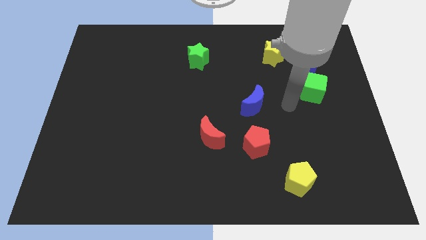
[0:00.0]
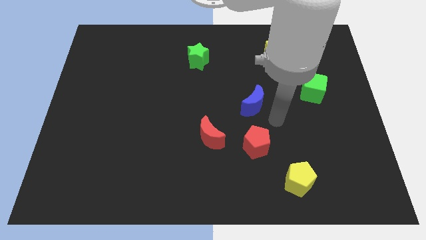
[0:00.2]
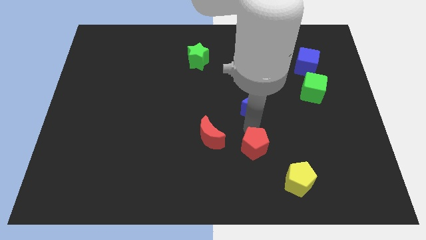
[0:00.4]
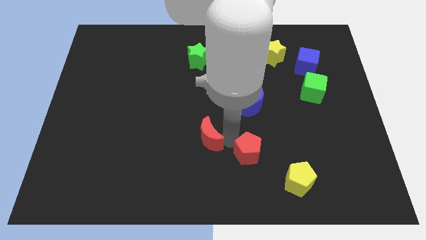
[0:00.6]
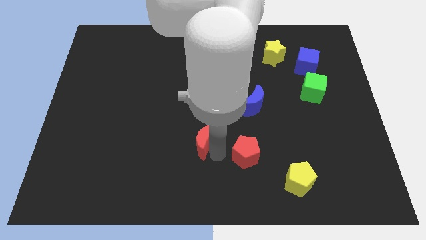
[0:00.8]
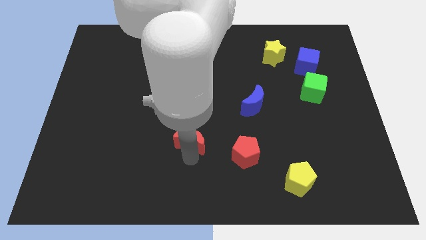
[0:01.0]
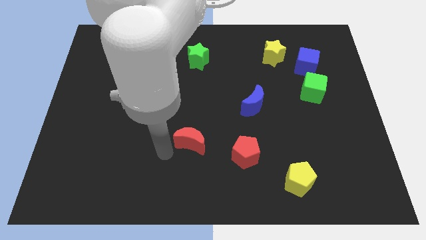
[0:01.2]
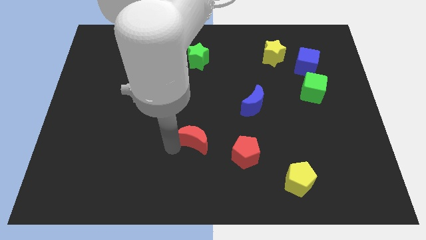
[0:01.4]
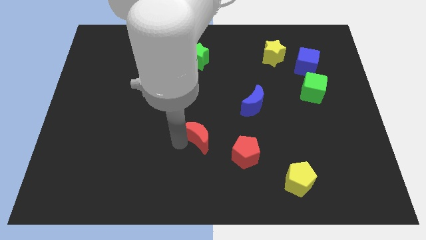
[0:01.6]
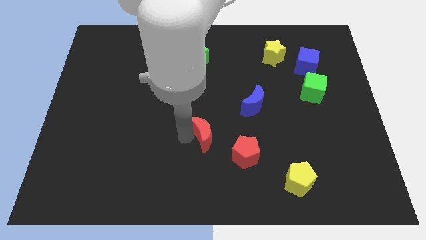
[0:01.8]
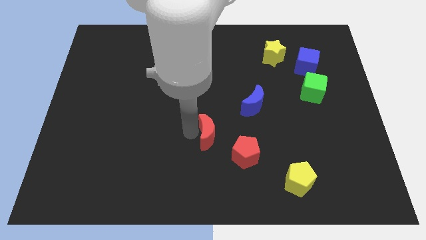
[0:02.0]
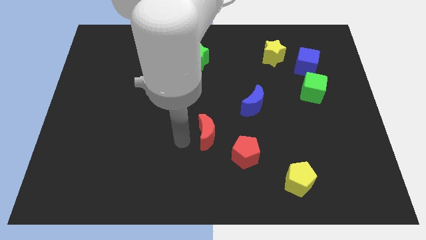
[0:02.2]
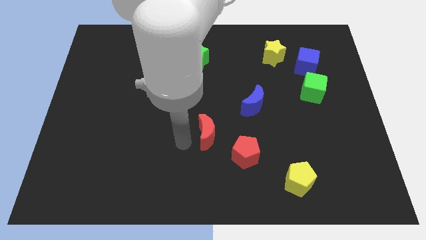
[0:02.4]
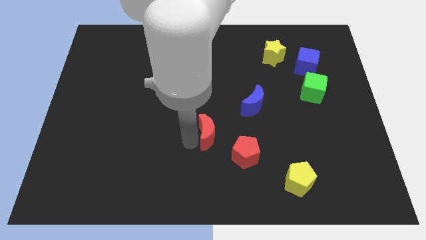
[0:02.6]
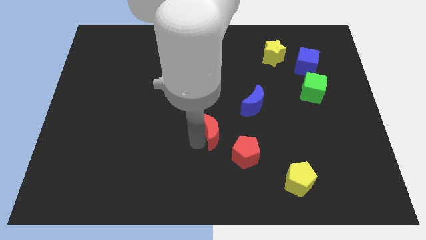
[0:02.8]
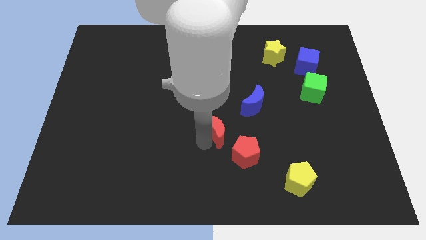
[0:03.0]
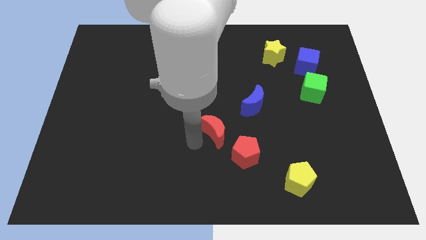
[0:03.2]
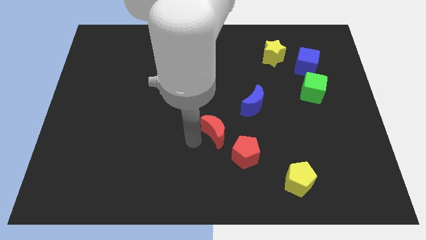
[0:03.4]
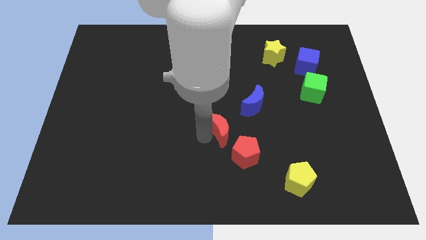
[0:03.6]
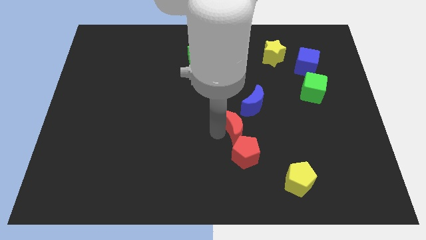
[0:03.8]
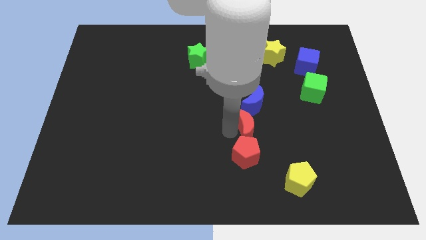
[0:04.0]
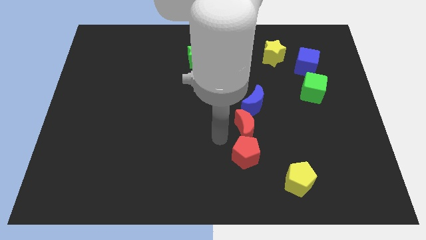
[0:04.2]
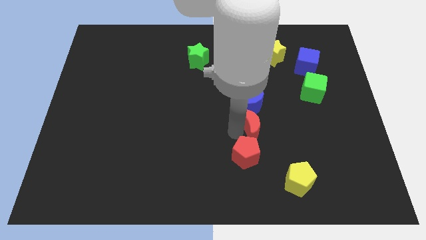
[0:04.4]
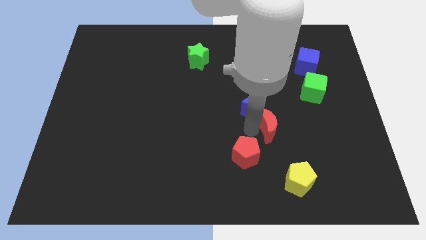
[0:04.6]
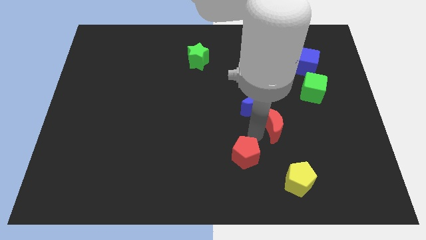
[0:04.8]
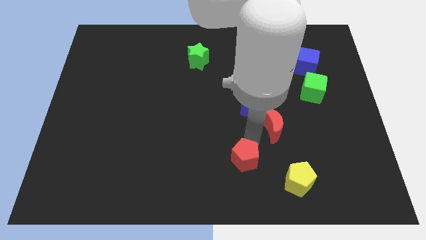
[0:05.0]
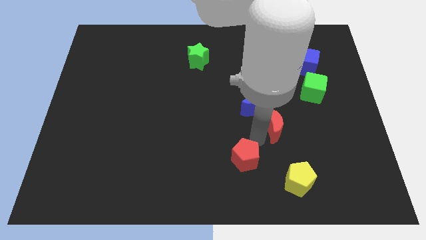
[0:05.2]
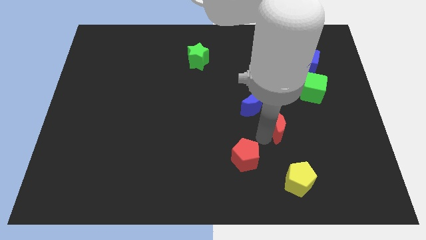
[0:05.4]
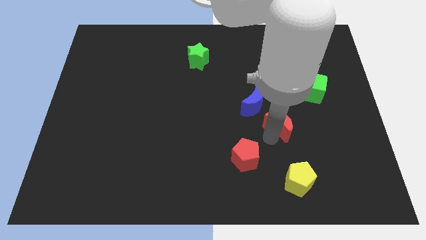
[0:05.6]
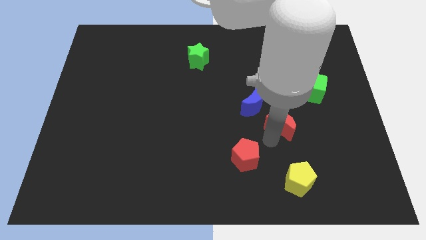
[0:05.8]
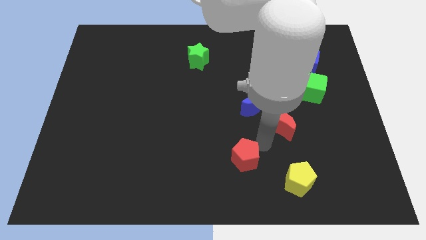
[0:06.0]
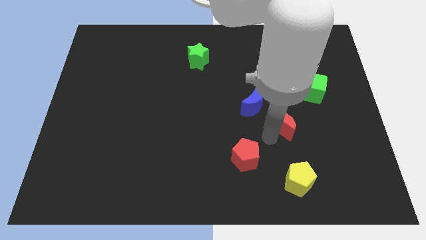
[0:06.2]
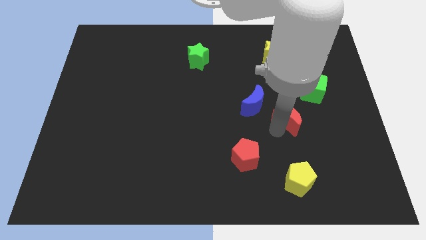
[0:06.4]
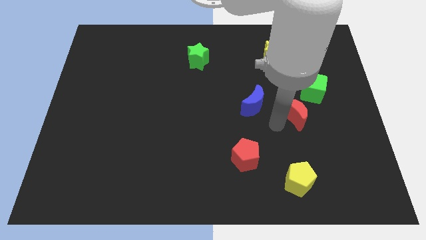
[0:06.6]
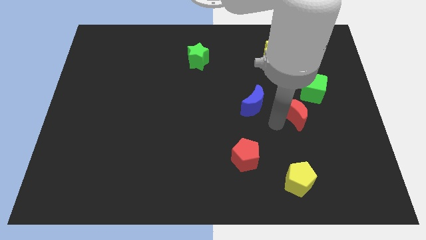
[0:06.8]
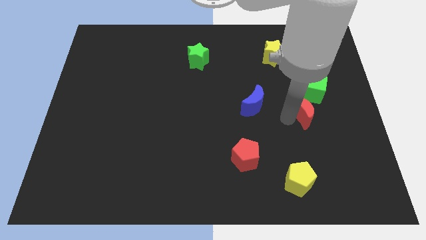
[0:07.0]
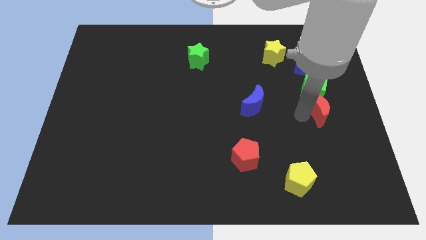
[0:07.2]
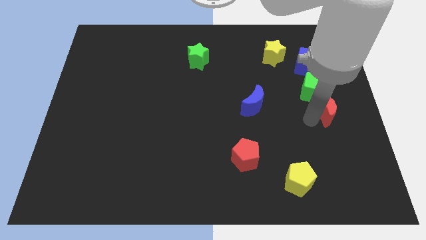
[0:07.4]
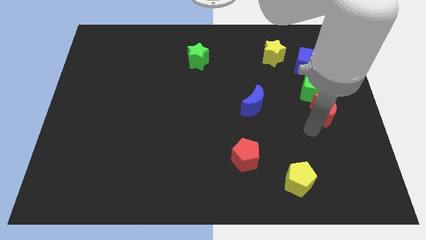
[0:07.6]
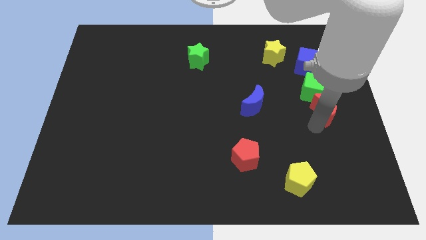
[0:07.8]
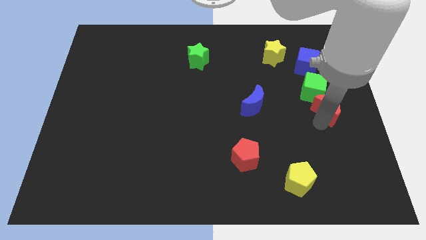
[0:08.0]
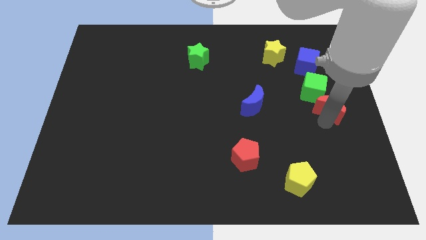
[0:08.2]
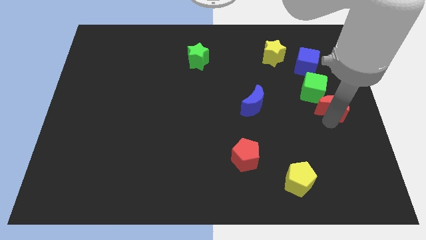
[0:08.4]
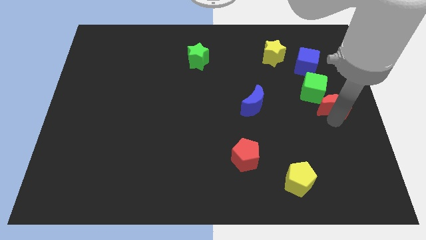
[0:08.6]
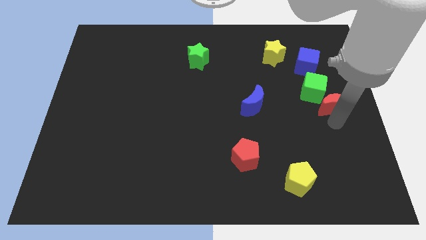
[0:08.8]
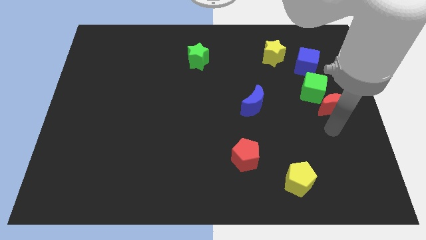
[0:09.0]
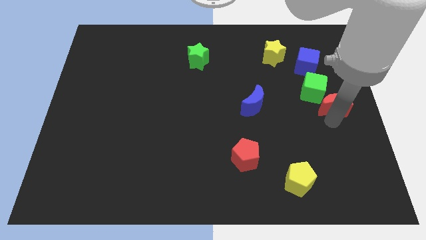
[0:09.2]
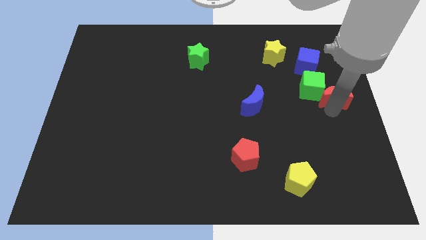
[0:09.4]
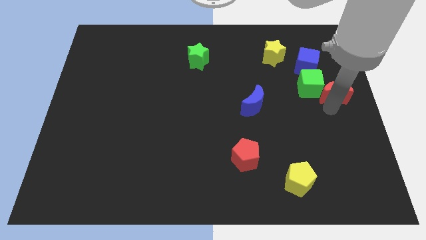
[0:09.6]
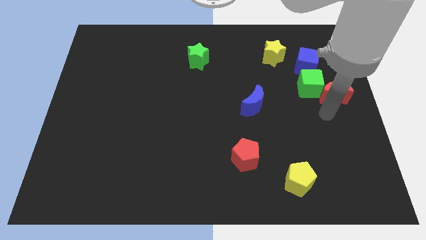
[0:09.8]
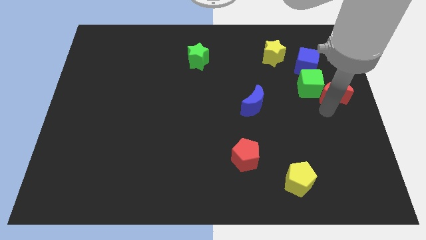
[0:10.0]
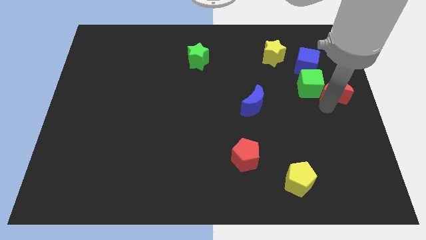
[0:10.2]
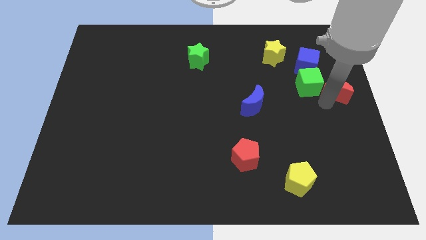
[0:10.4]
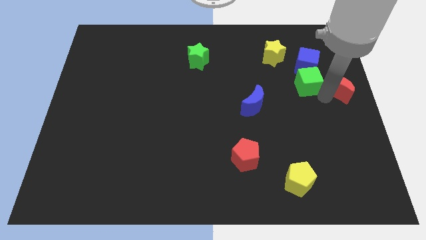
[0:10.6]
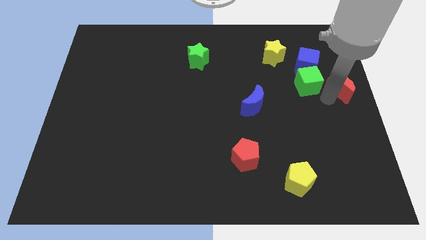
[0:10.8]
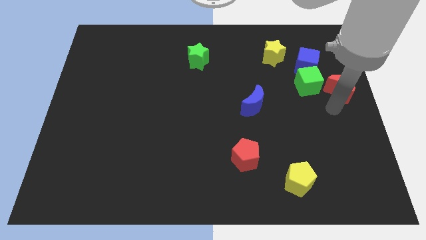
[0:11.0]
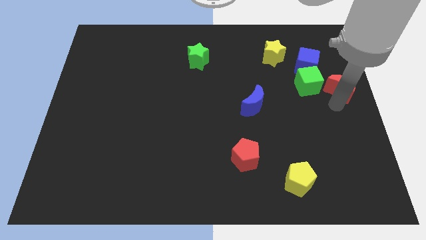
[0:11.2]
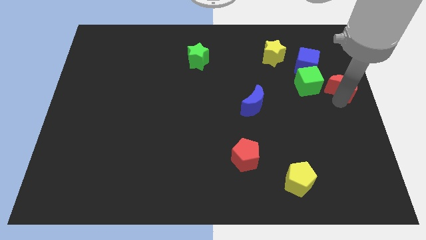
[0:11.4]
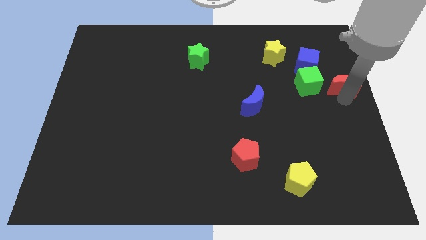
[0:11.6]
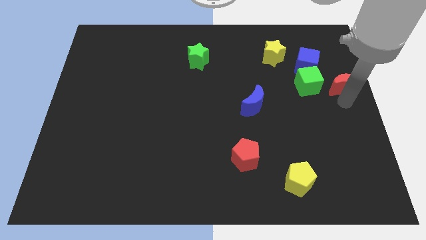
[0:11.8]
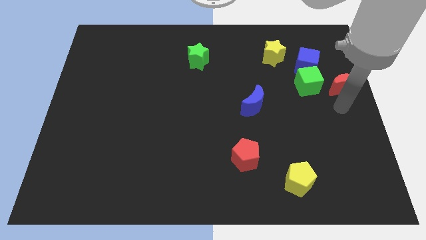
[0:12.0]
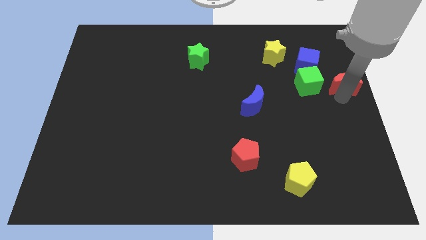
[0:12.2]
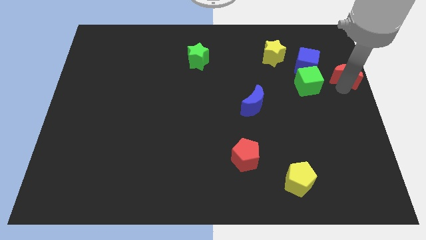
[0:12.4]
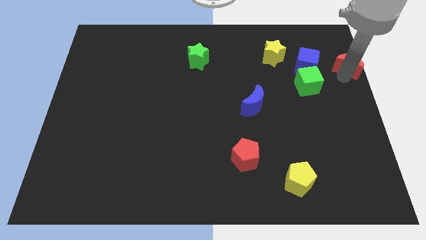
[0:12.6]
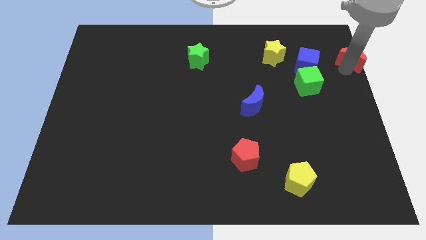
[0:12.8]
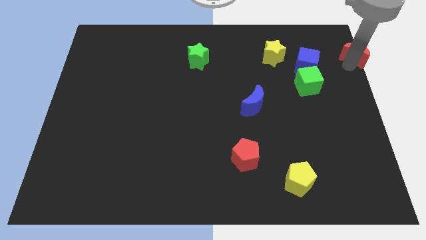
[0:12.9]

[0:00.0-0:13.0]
move the red moon to the top right corner
